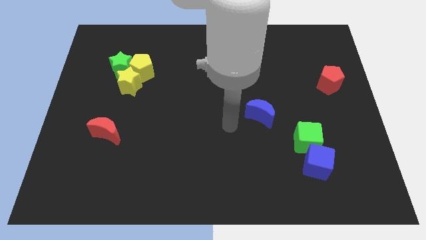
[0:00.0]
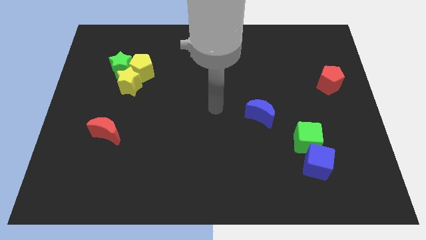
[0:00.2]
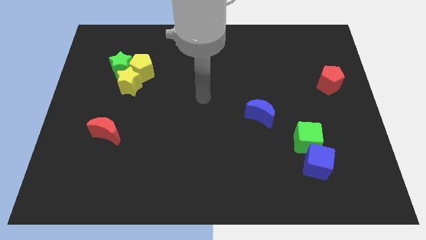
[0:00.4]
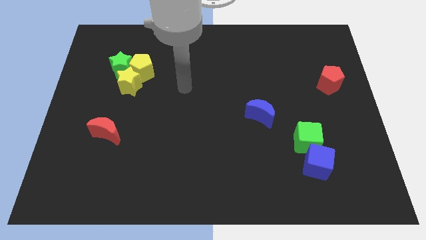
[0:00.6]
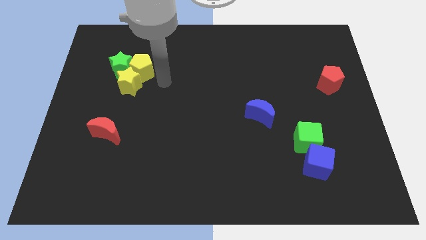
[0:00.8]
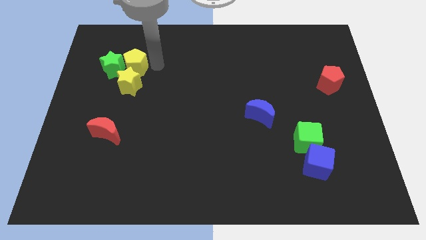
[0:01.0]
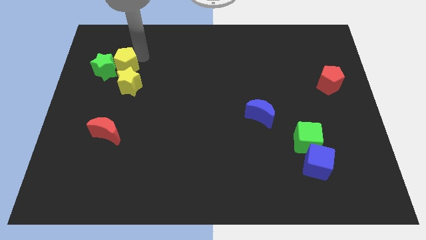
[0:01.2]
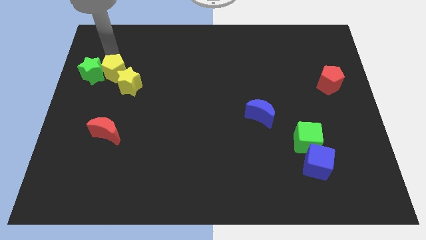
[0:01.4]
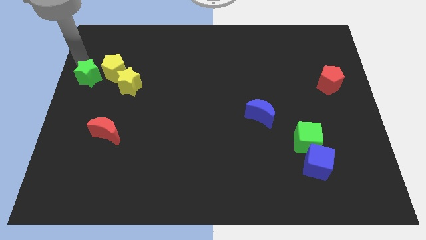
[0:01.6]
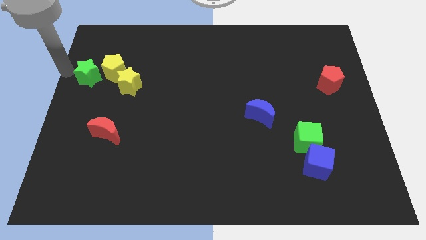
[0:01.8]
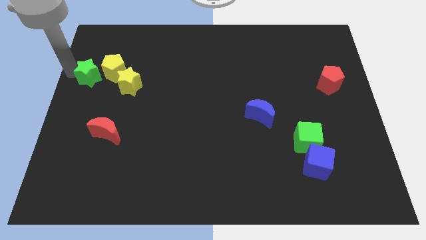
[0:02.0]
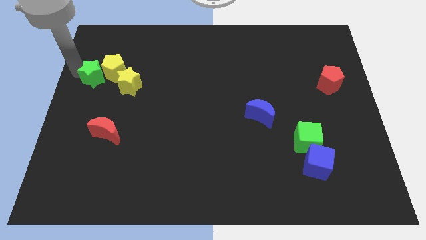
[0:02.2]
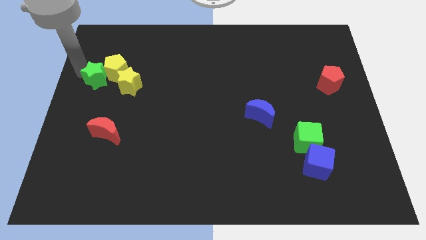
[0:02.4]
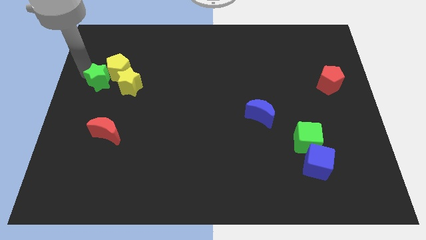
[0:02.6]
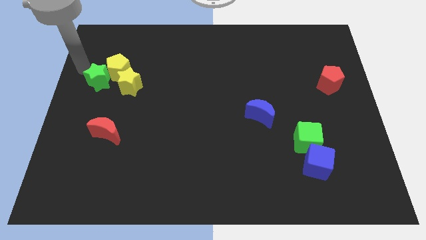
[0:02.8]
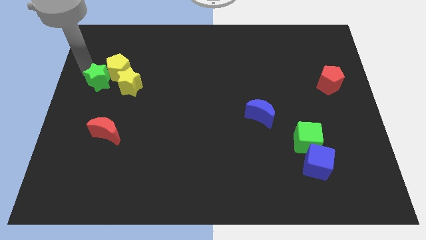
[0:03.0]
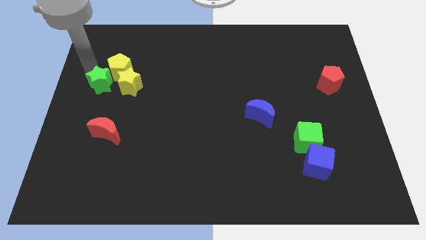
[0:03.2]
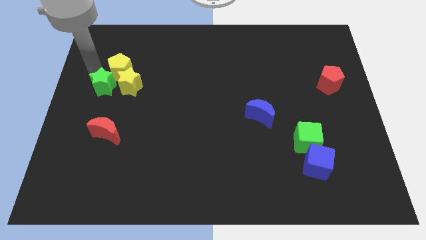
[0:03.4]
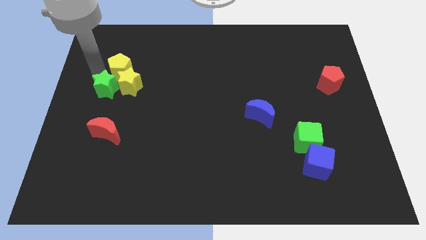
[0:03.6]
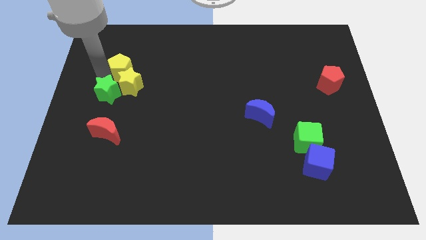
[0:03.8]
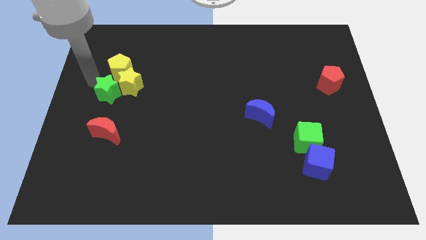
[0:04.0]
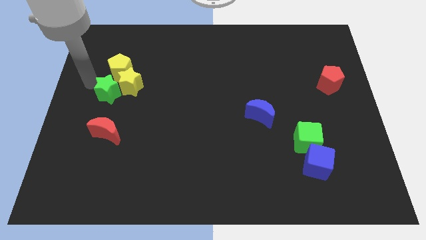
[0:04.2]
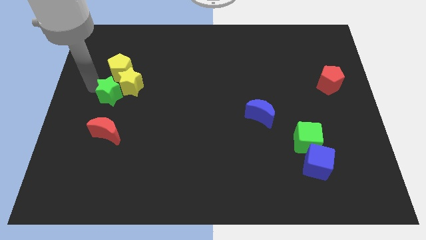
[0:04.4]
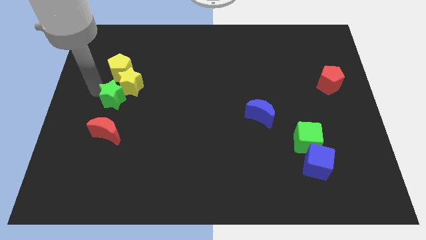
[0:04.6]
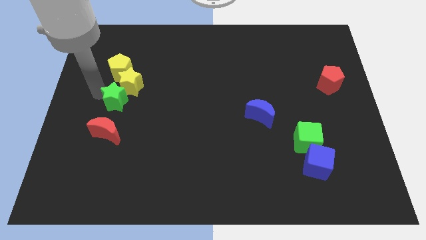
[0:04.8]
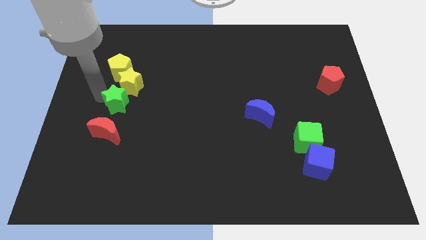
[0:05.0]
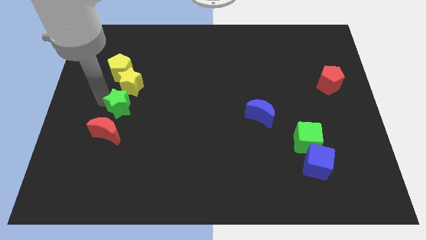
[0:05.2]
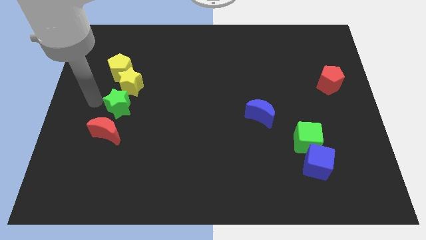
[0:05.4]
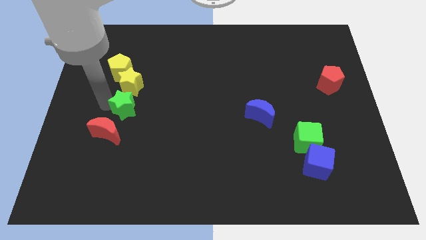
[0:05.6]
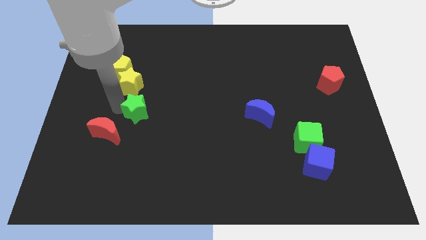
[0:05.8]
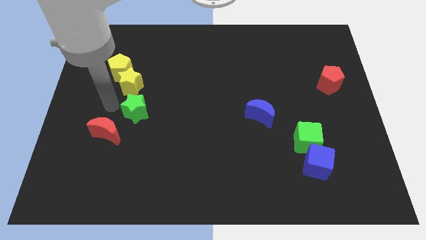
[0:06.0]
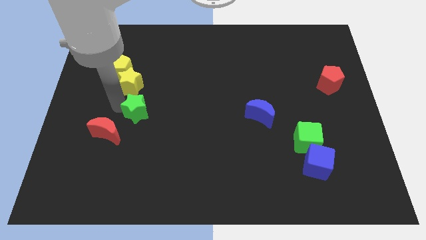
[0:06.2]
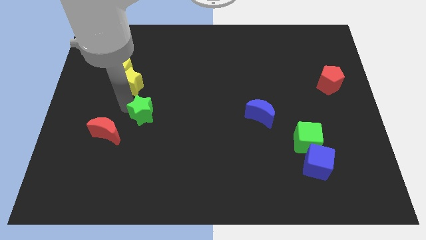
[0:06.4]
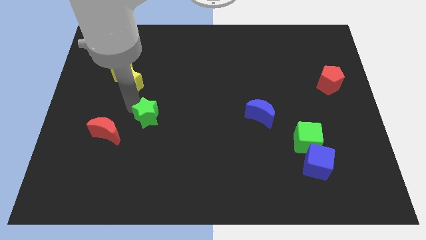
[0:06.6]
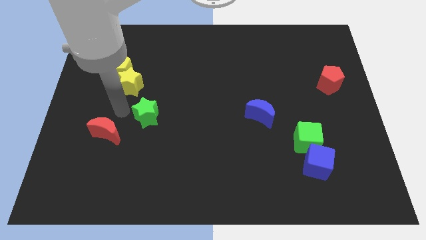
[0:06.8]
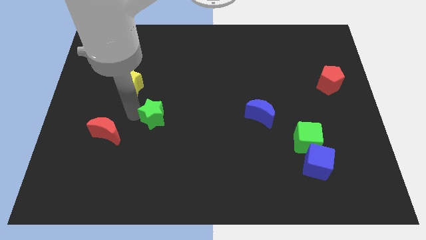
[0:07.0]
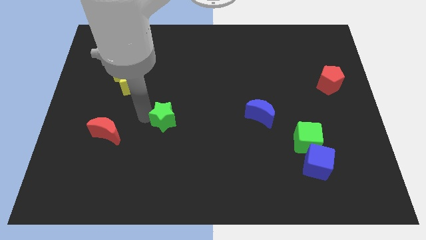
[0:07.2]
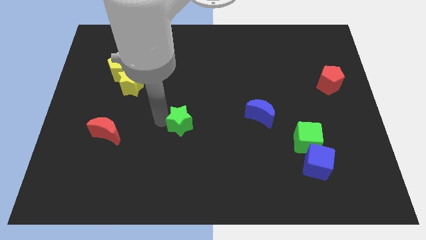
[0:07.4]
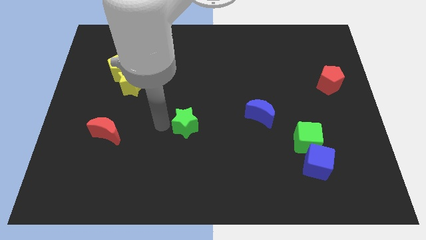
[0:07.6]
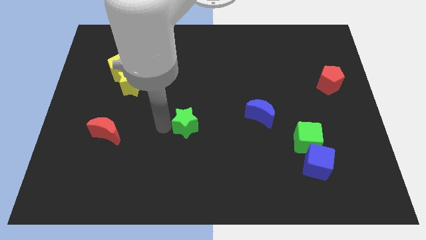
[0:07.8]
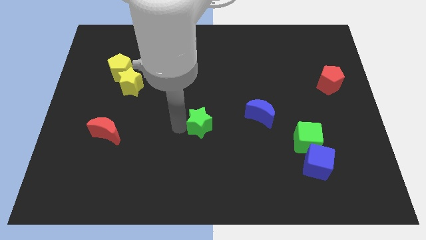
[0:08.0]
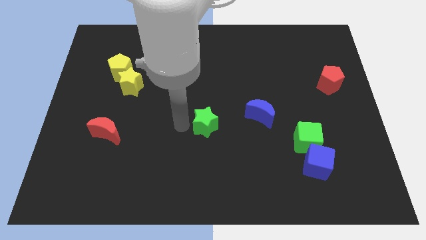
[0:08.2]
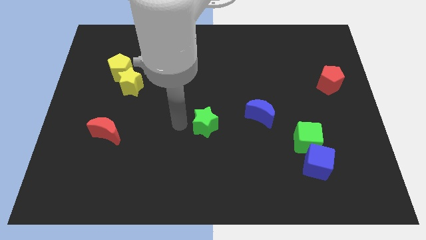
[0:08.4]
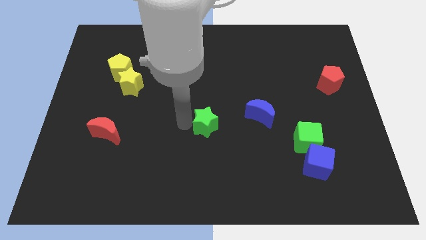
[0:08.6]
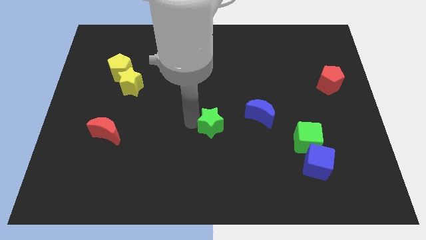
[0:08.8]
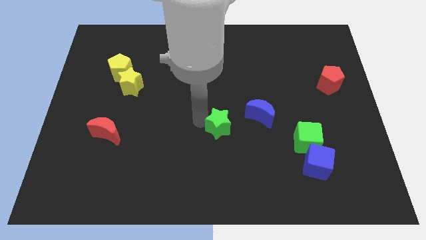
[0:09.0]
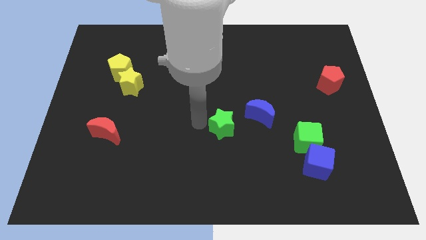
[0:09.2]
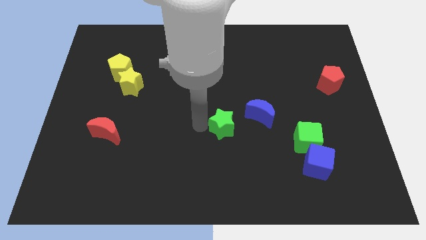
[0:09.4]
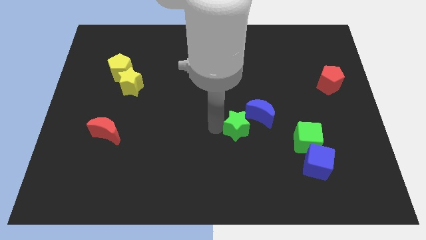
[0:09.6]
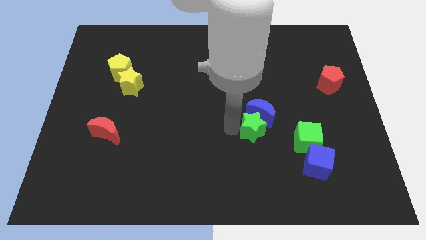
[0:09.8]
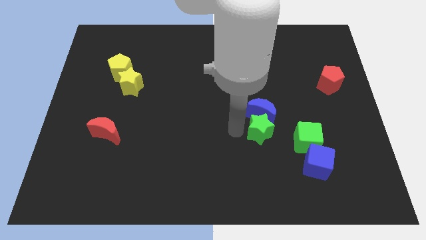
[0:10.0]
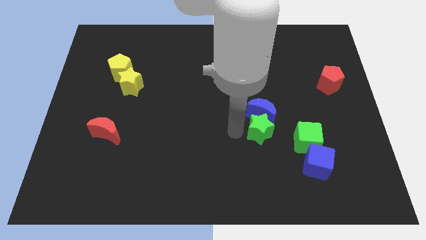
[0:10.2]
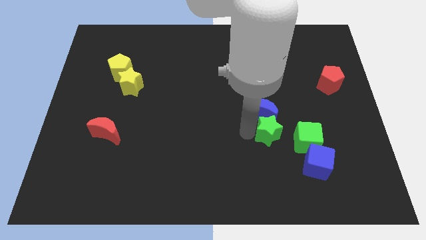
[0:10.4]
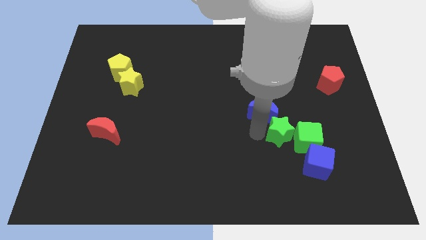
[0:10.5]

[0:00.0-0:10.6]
put the green star towards the green cube

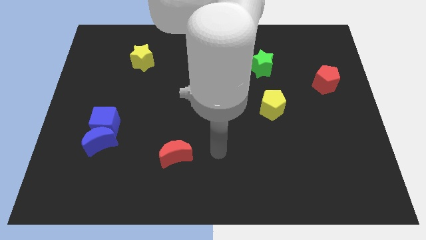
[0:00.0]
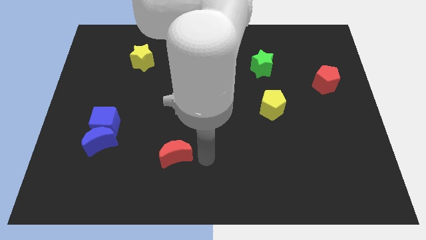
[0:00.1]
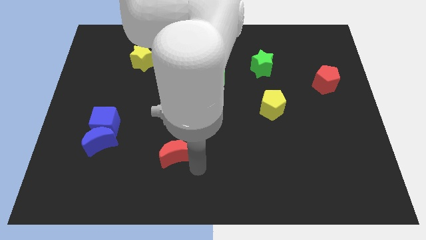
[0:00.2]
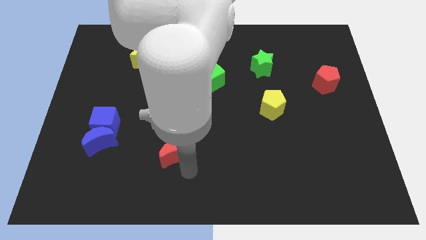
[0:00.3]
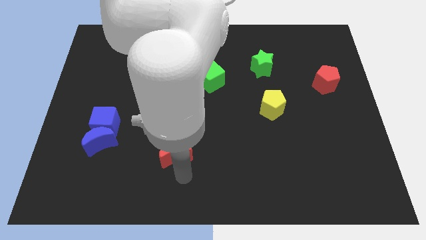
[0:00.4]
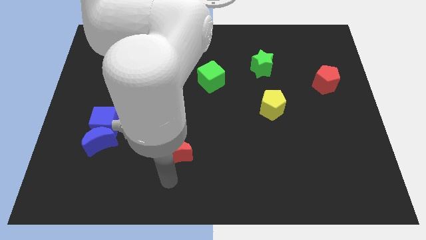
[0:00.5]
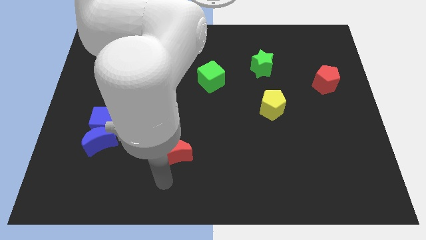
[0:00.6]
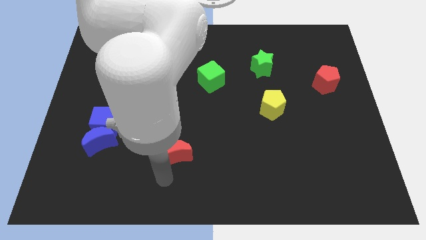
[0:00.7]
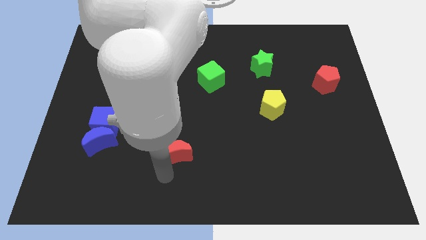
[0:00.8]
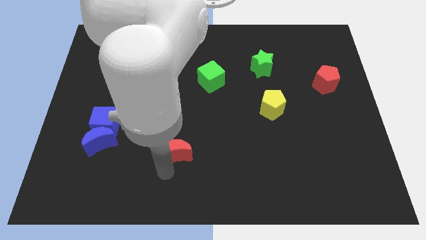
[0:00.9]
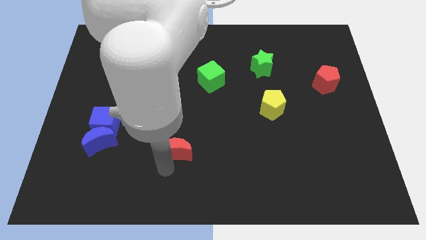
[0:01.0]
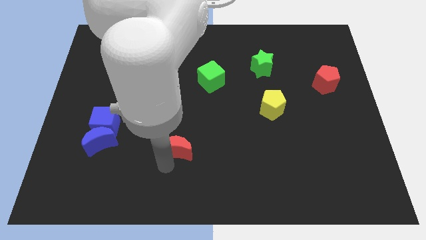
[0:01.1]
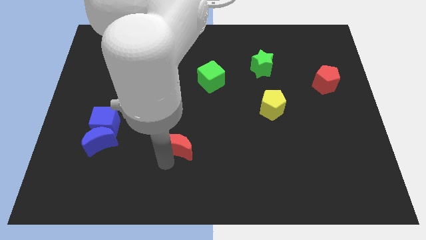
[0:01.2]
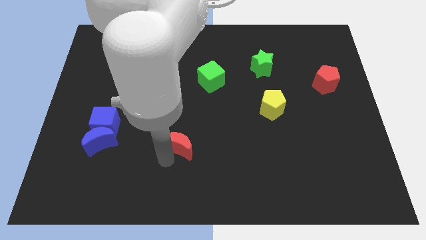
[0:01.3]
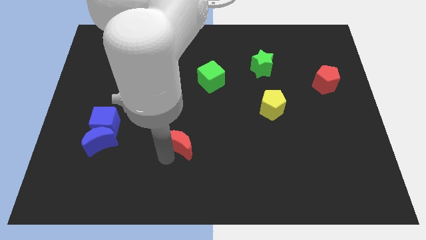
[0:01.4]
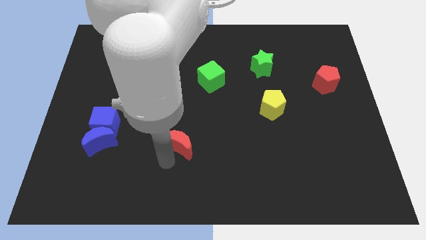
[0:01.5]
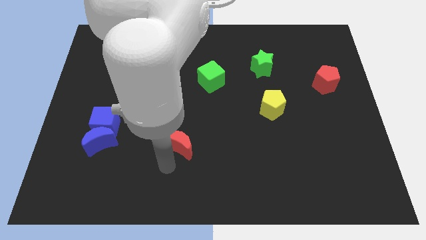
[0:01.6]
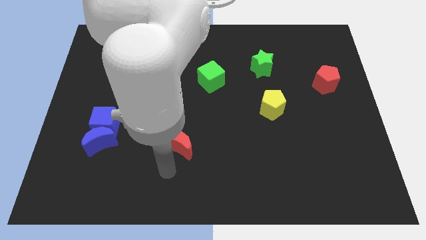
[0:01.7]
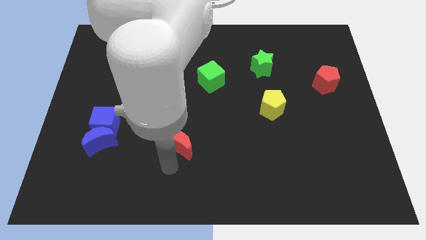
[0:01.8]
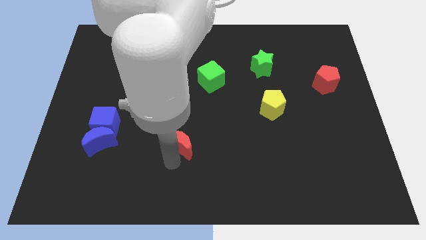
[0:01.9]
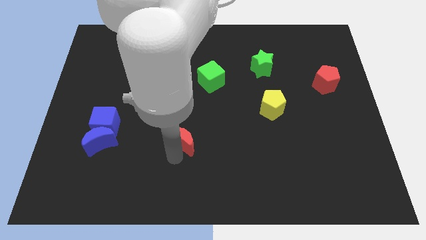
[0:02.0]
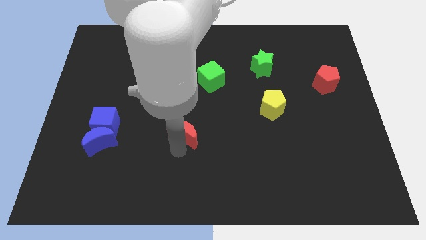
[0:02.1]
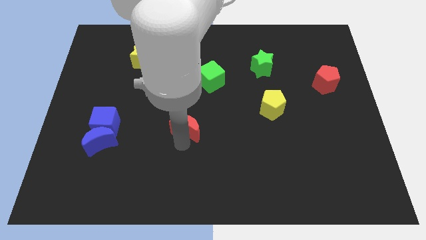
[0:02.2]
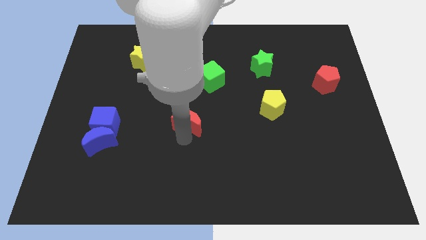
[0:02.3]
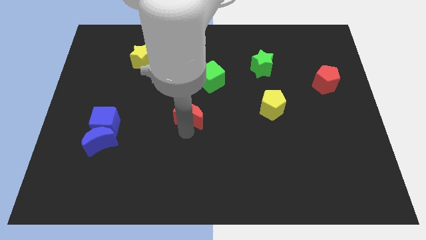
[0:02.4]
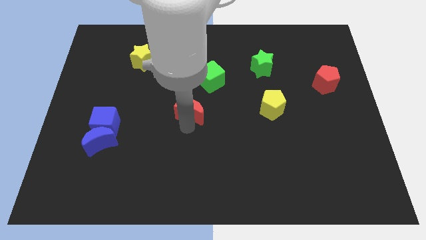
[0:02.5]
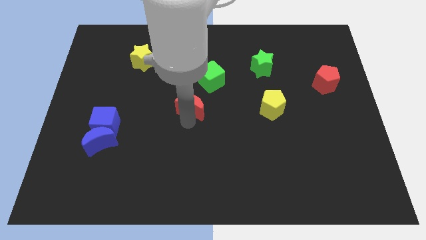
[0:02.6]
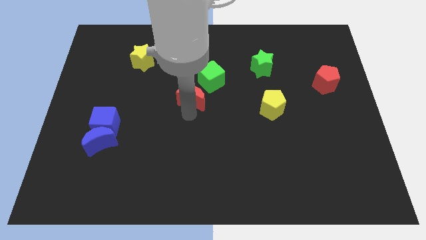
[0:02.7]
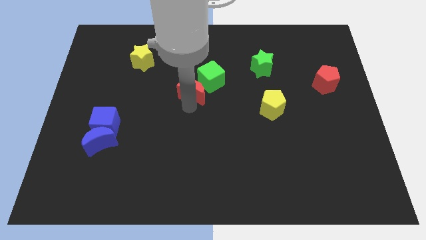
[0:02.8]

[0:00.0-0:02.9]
slide the red moon to the green cube
